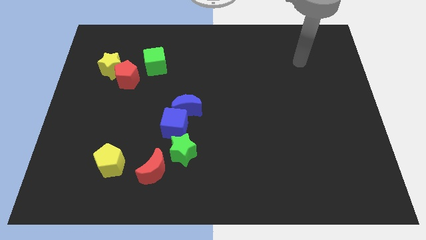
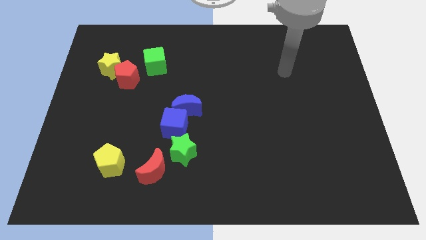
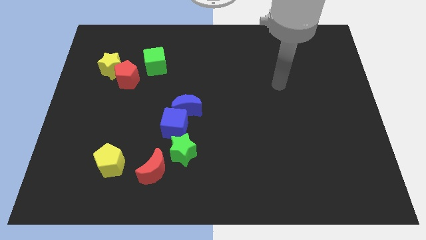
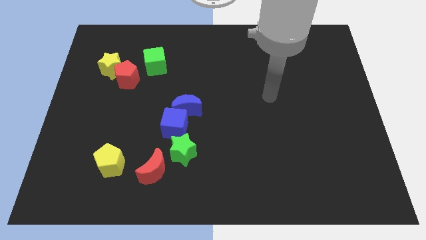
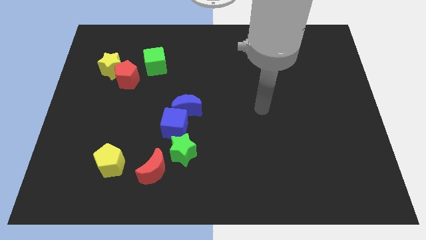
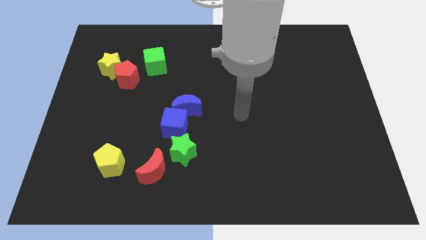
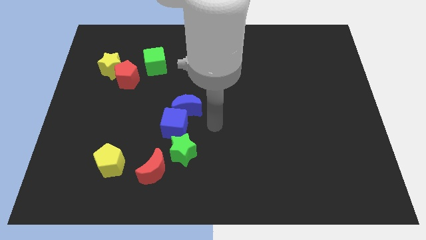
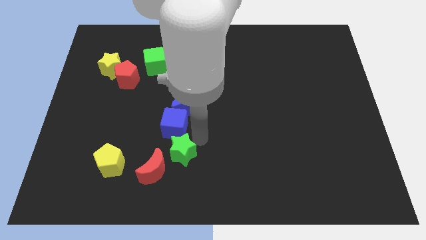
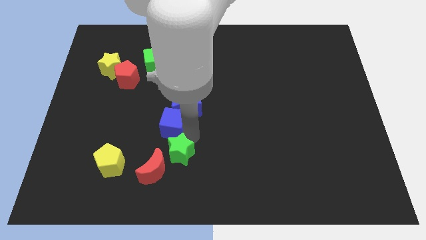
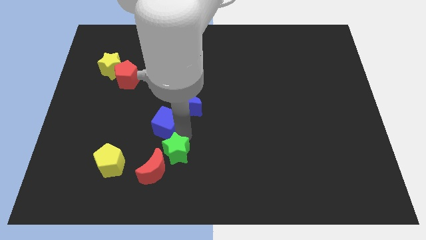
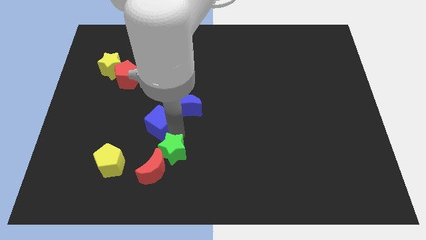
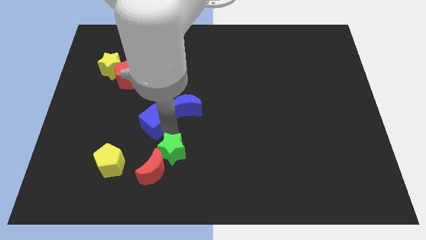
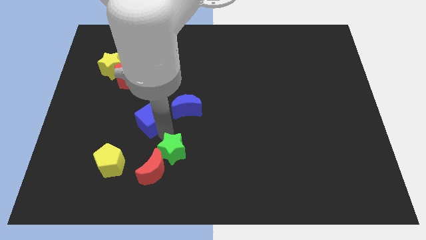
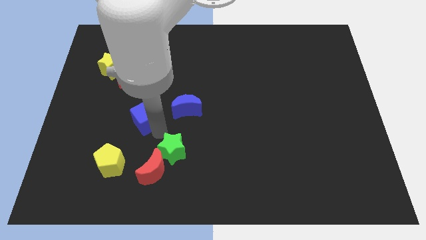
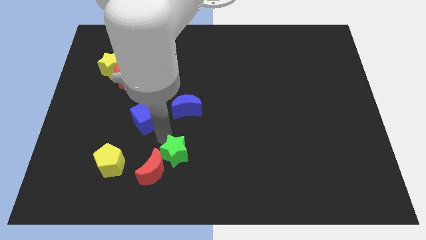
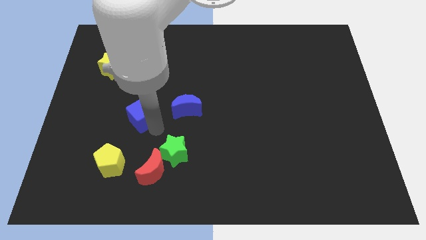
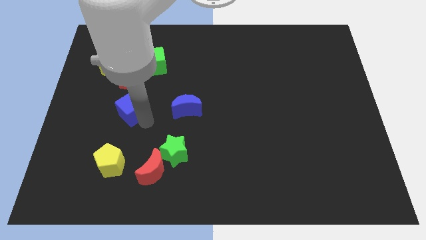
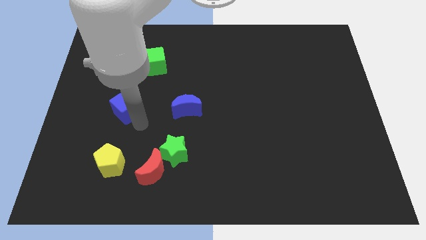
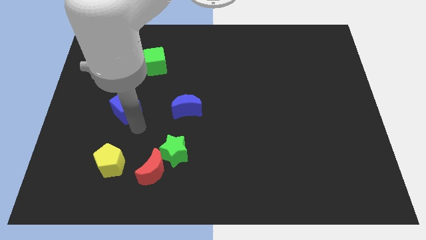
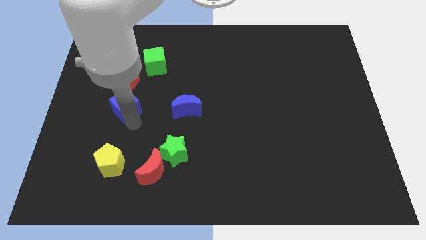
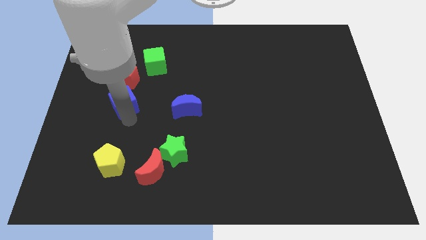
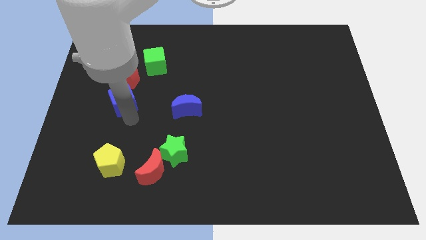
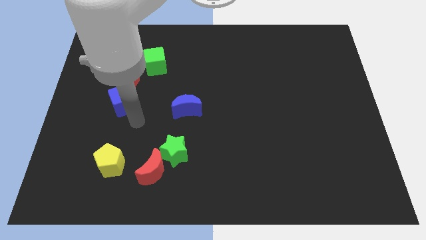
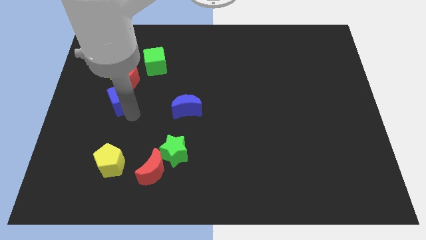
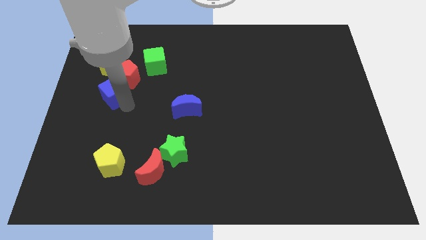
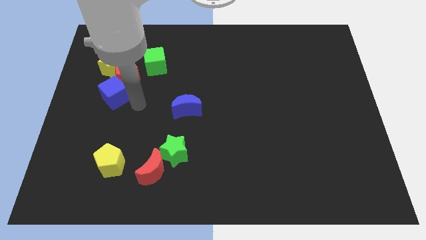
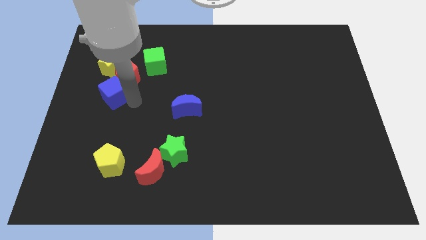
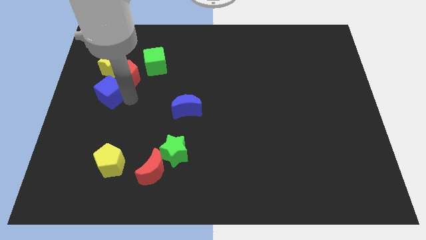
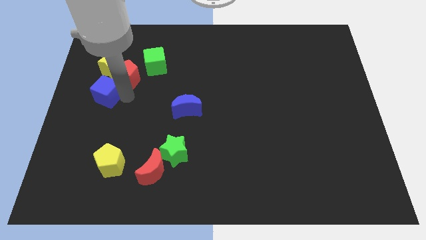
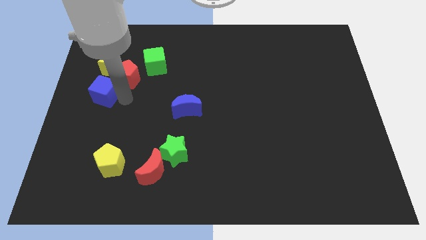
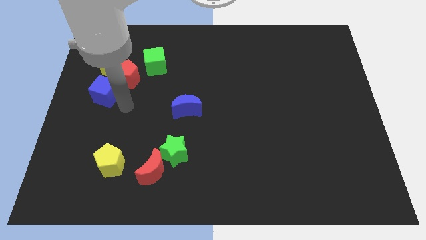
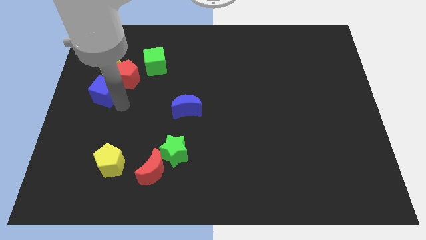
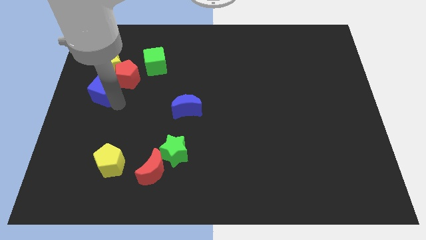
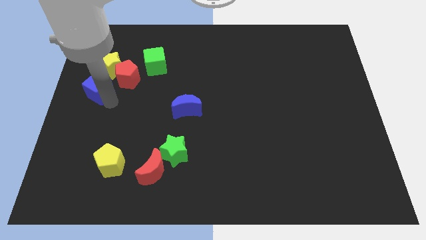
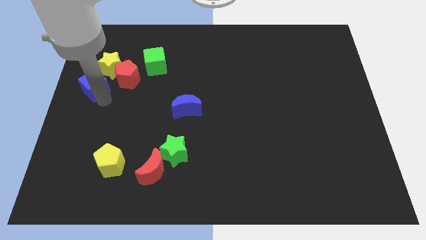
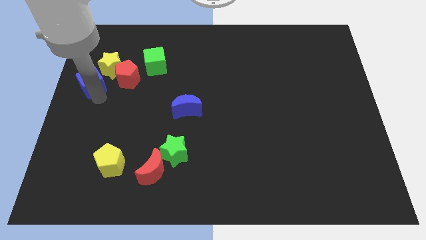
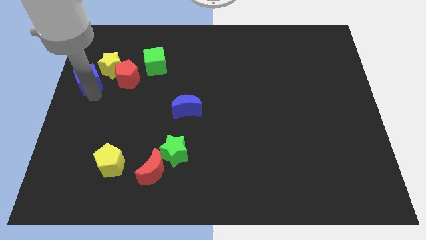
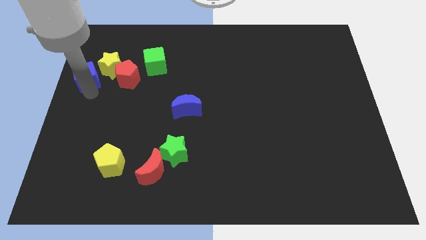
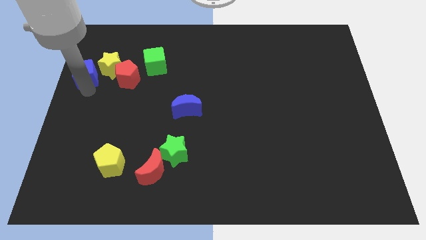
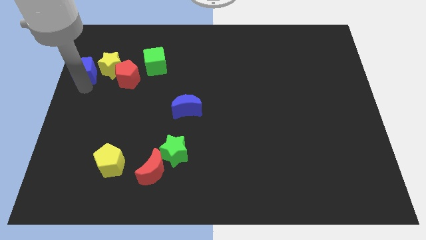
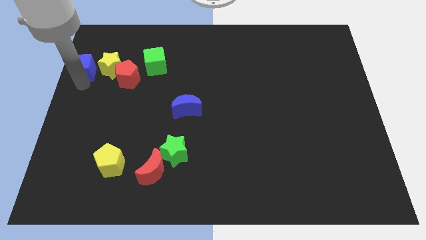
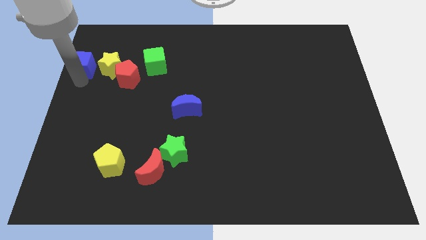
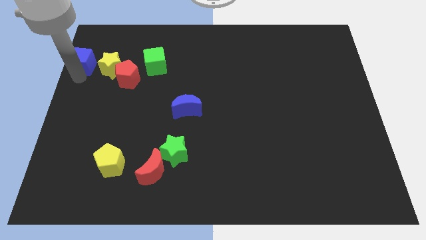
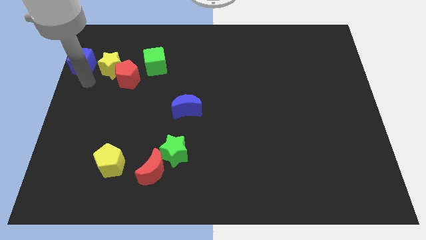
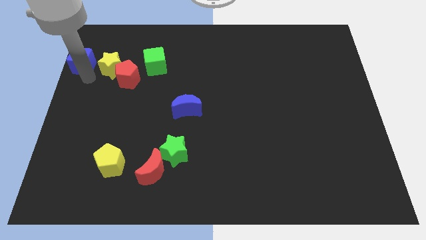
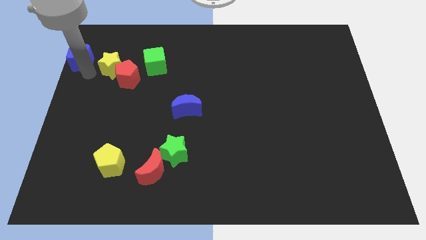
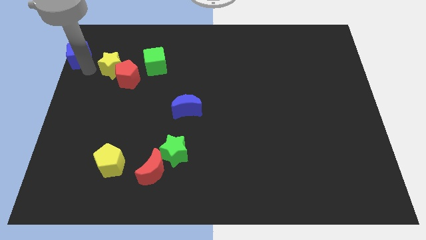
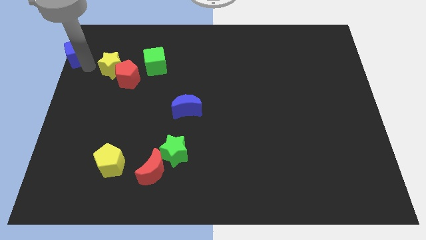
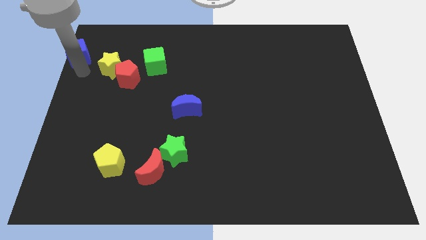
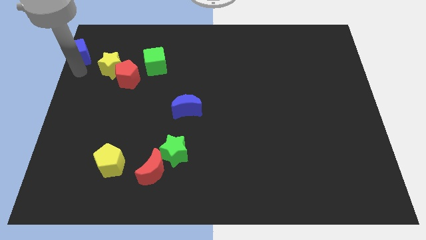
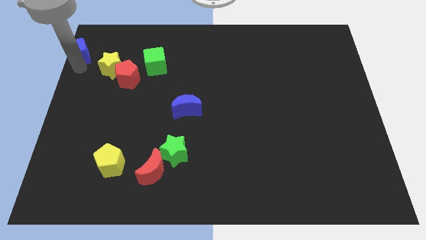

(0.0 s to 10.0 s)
move the blue cube to the upper left corner

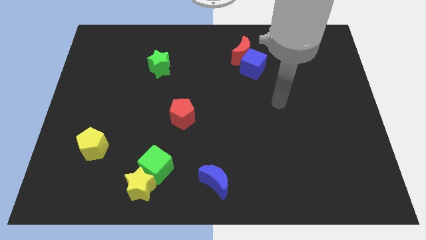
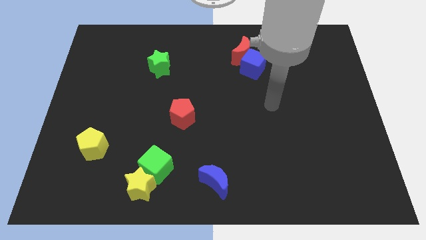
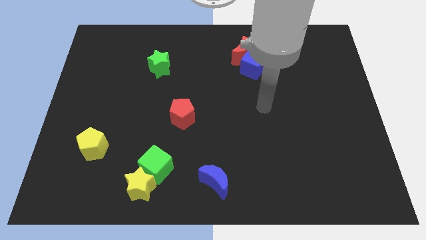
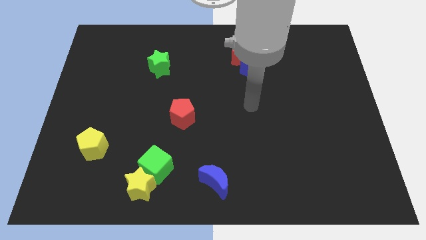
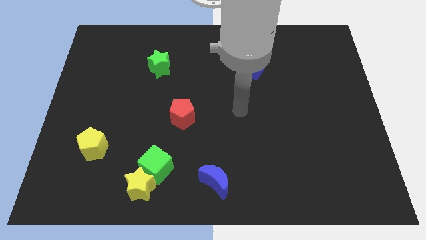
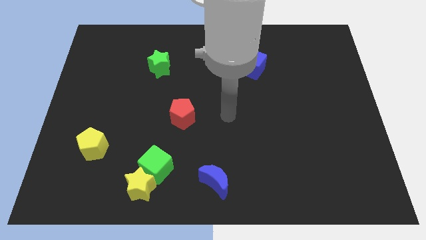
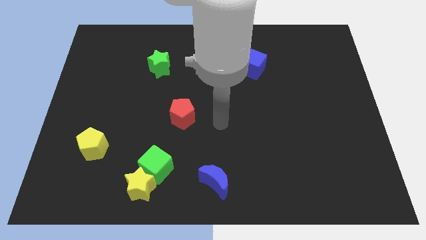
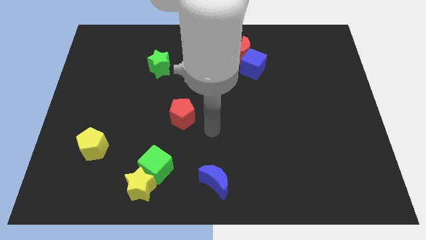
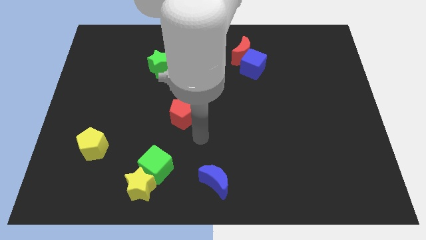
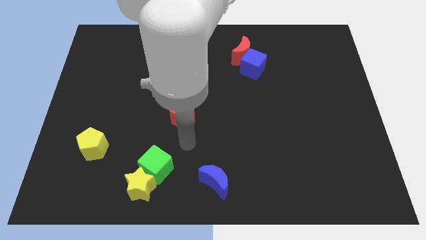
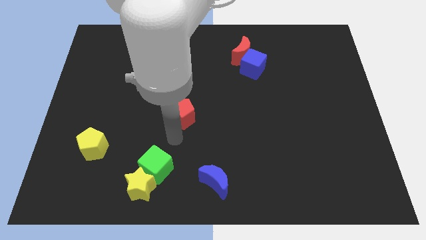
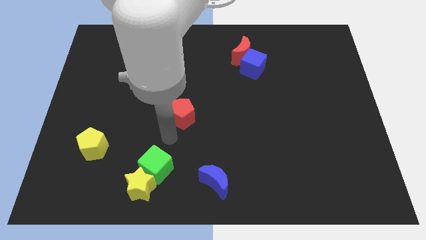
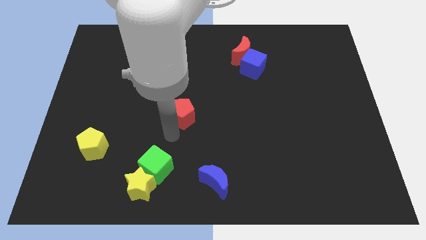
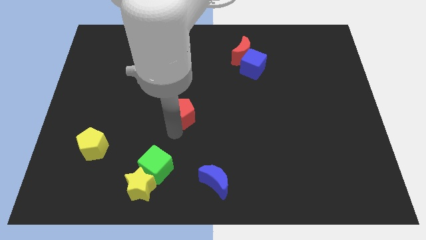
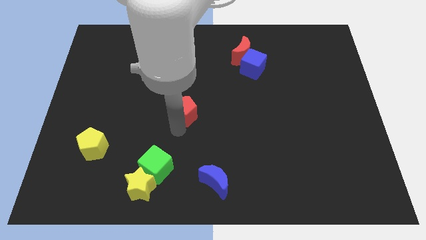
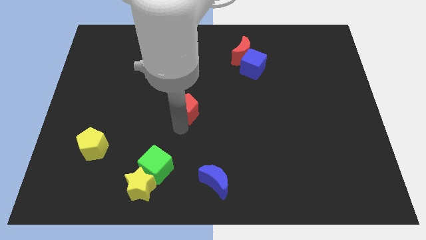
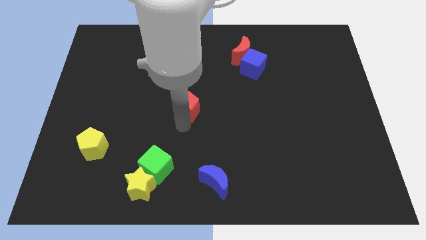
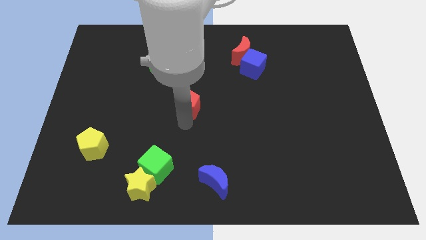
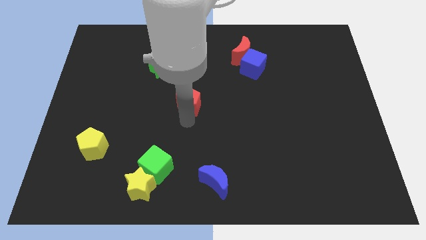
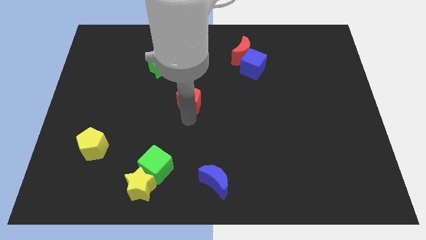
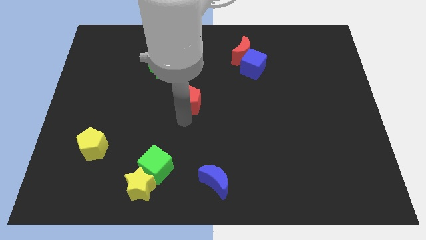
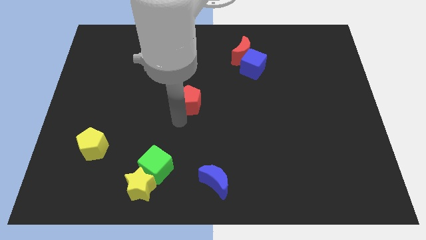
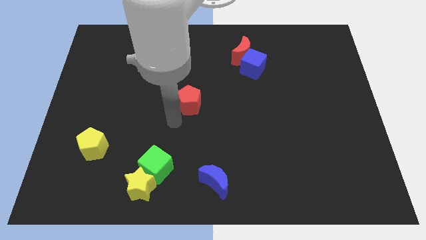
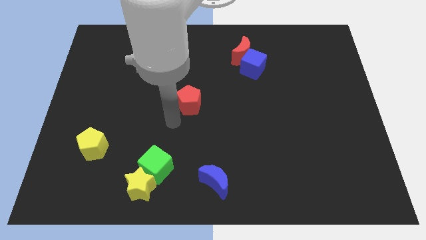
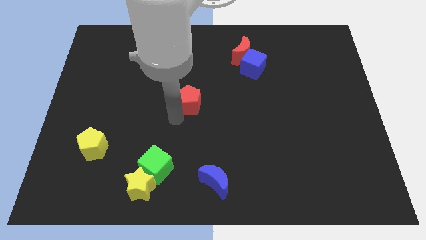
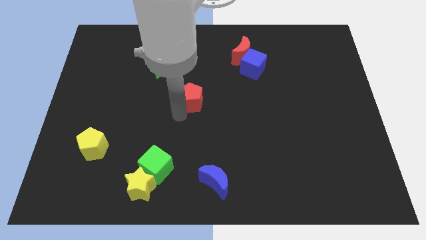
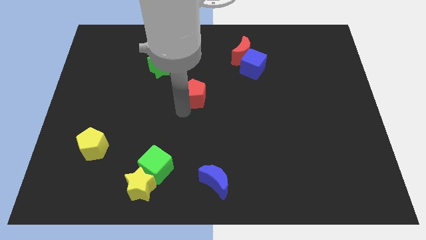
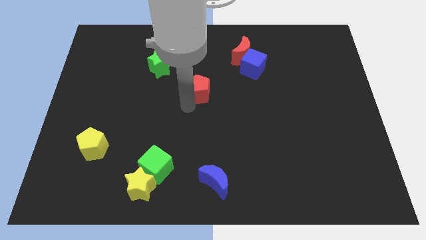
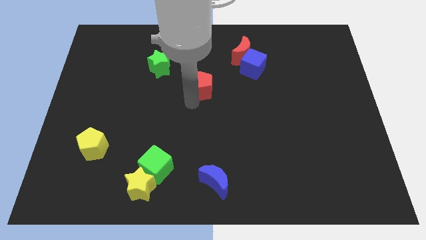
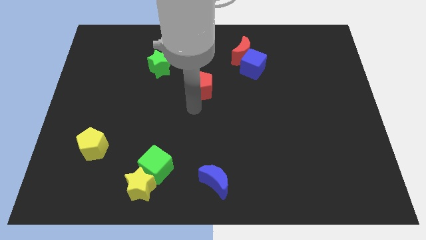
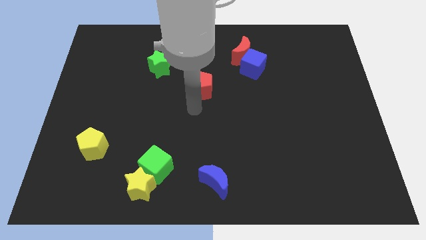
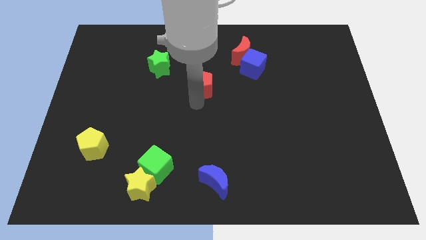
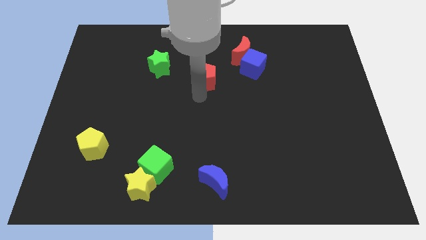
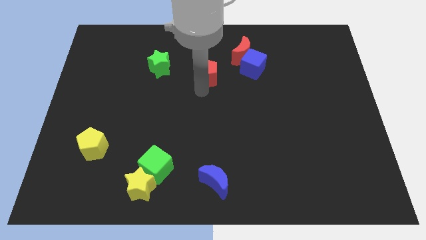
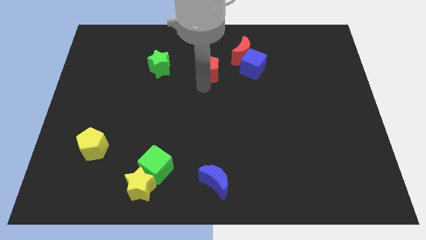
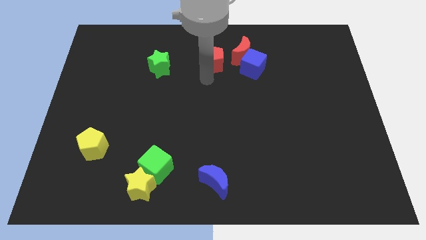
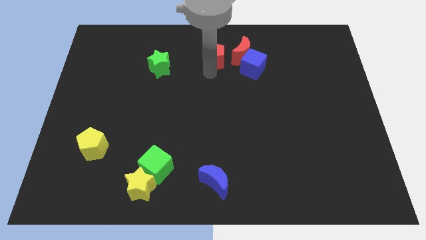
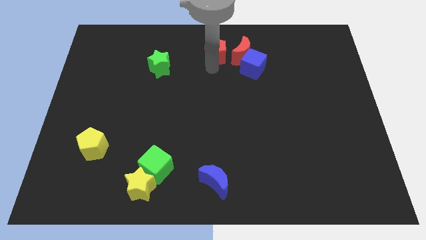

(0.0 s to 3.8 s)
slide the red pentagon to the top
